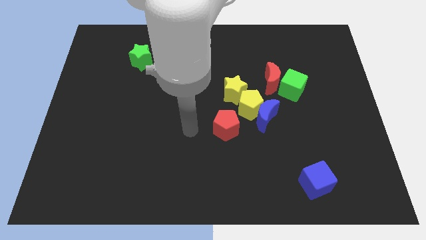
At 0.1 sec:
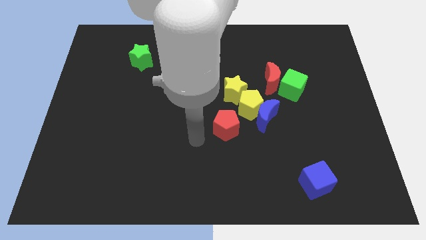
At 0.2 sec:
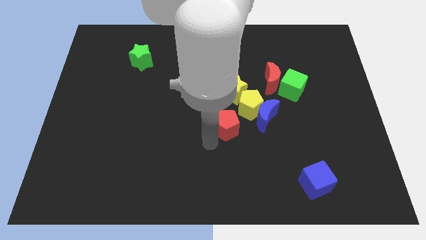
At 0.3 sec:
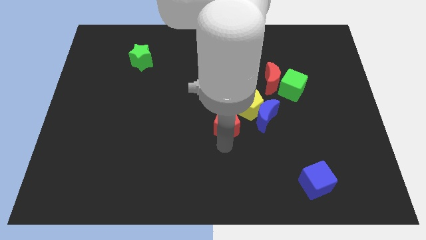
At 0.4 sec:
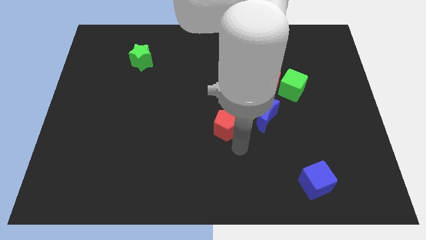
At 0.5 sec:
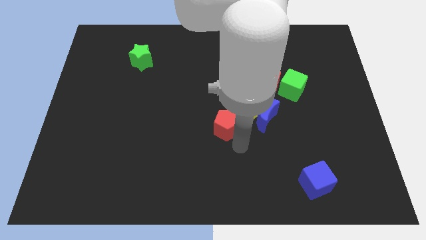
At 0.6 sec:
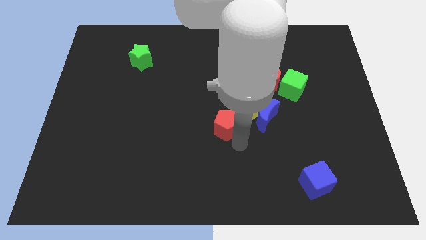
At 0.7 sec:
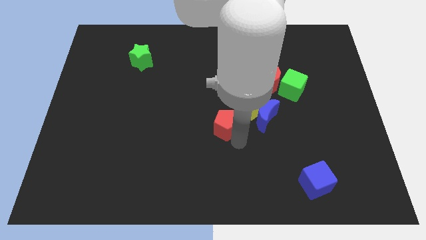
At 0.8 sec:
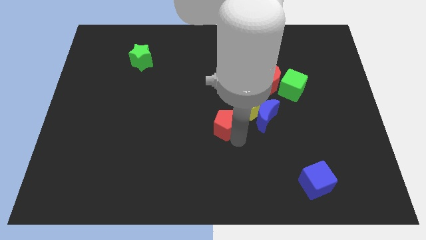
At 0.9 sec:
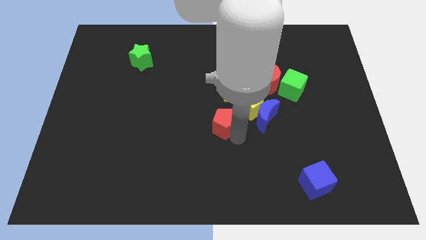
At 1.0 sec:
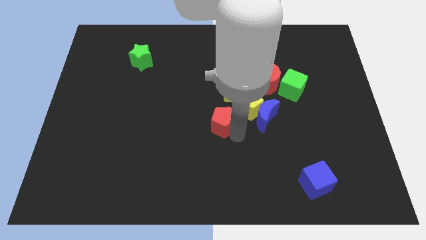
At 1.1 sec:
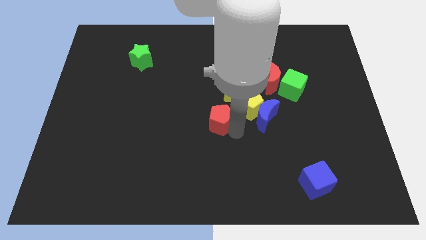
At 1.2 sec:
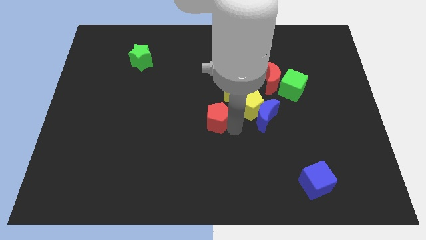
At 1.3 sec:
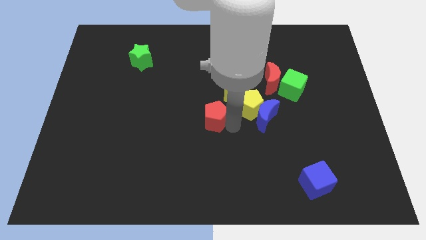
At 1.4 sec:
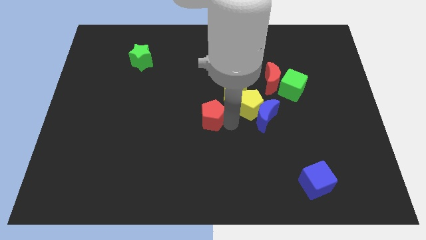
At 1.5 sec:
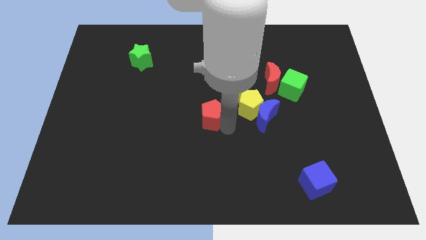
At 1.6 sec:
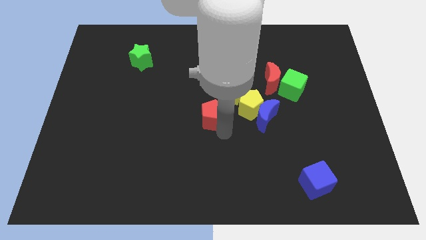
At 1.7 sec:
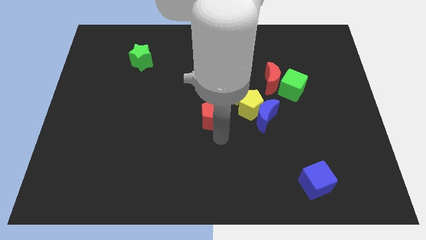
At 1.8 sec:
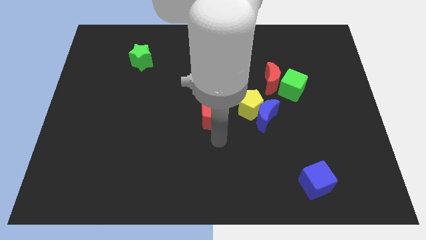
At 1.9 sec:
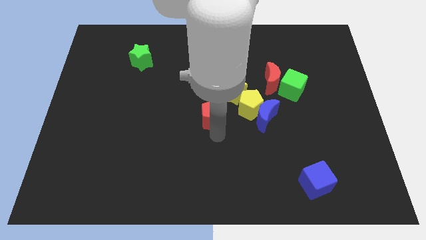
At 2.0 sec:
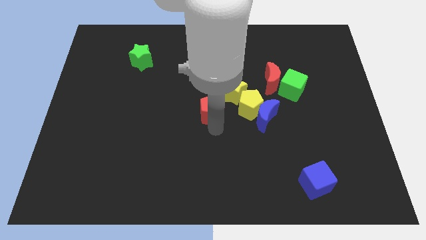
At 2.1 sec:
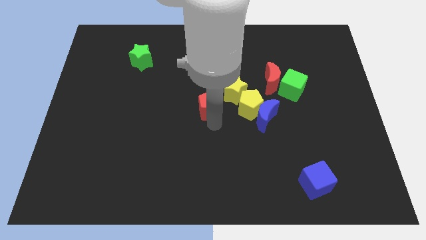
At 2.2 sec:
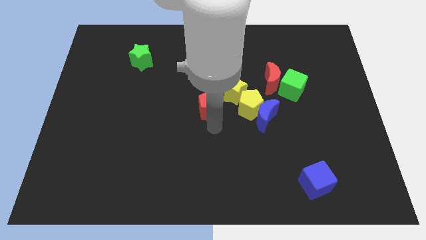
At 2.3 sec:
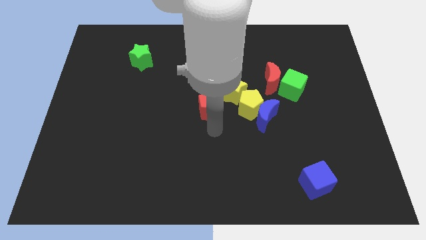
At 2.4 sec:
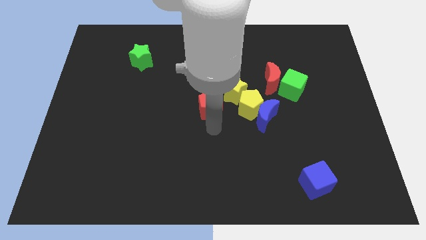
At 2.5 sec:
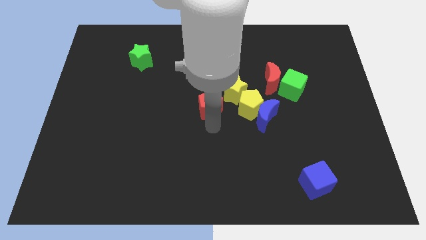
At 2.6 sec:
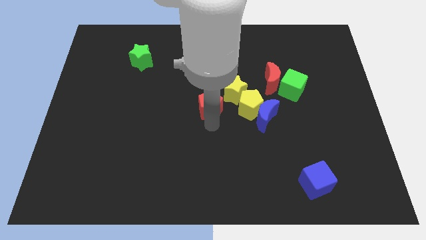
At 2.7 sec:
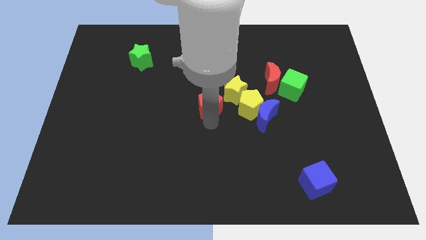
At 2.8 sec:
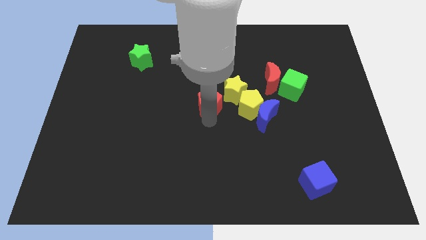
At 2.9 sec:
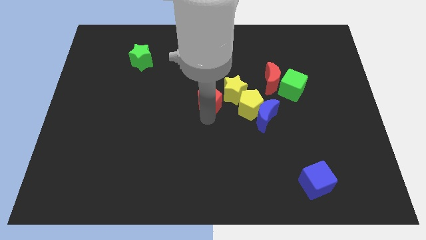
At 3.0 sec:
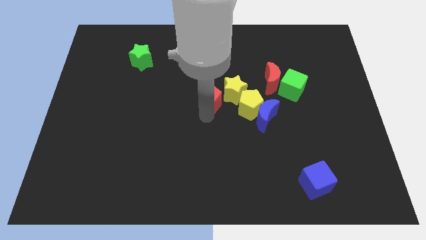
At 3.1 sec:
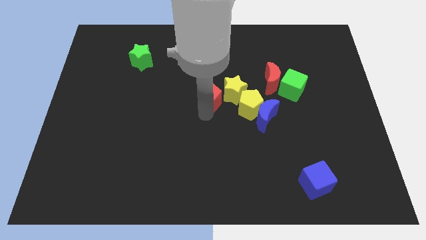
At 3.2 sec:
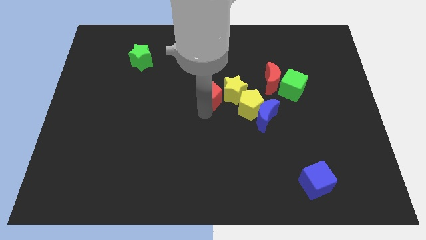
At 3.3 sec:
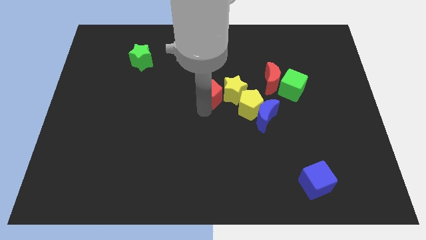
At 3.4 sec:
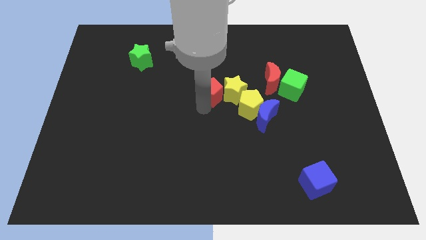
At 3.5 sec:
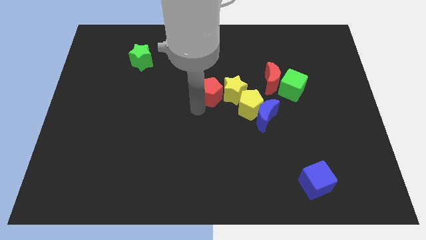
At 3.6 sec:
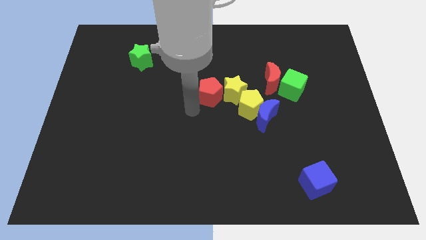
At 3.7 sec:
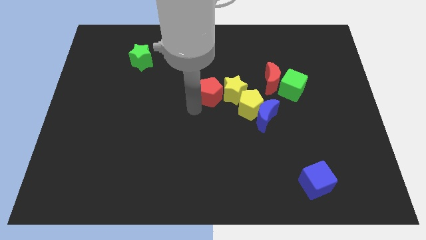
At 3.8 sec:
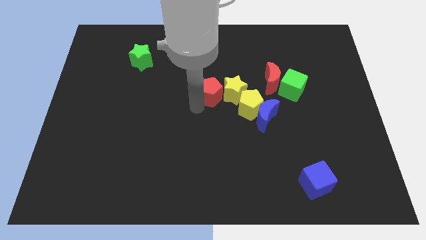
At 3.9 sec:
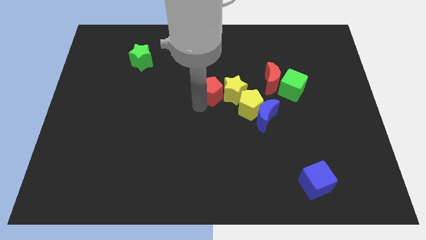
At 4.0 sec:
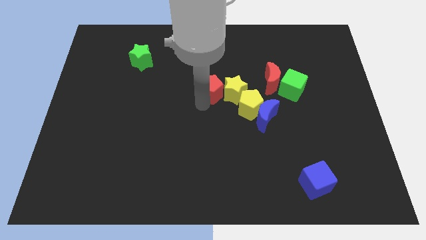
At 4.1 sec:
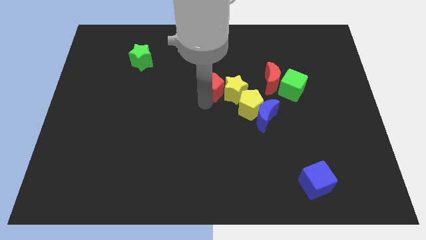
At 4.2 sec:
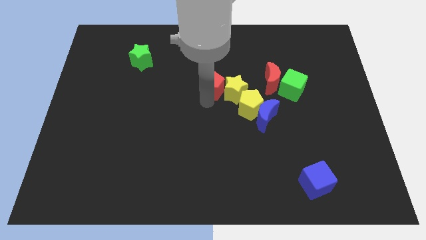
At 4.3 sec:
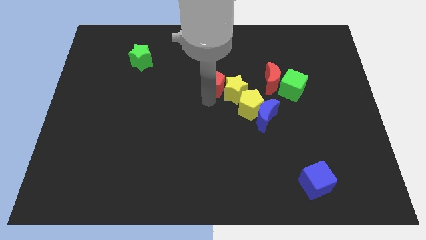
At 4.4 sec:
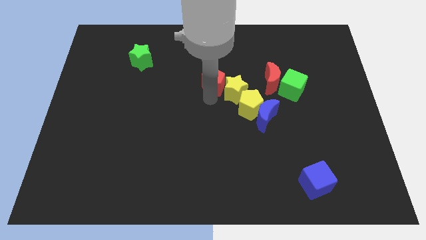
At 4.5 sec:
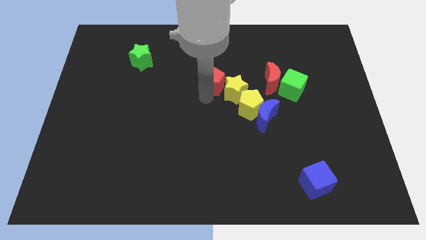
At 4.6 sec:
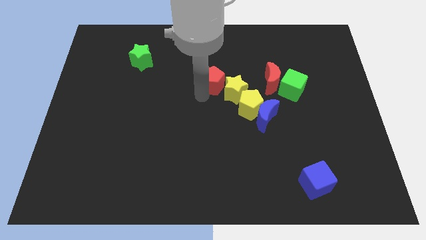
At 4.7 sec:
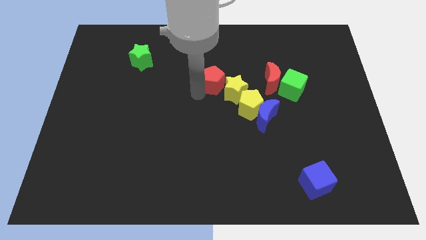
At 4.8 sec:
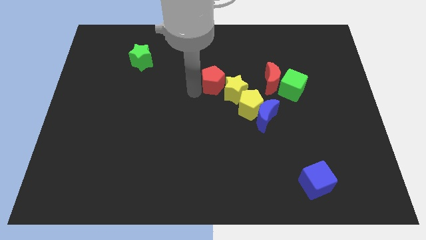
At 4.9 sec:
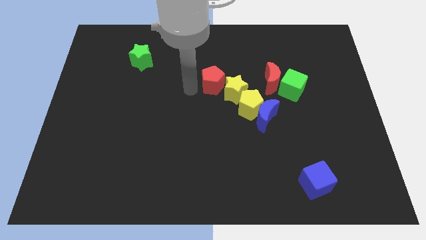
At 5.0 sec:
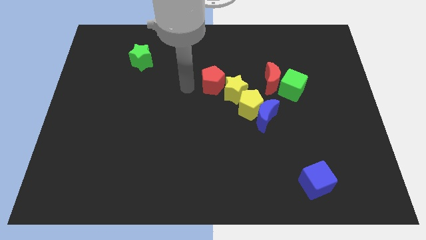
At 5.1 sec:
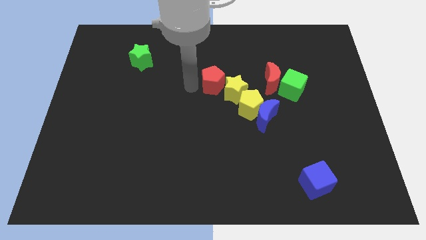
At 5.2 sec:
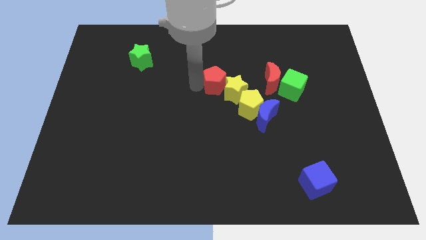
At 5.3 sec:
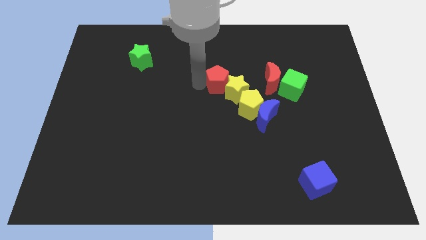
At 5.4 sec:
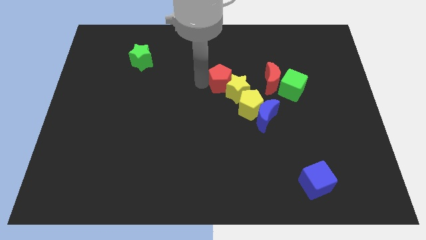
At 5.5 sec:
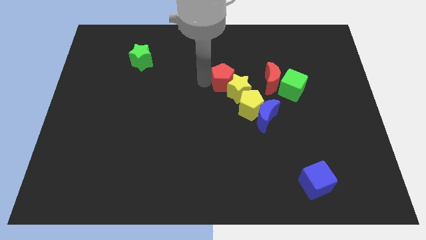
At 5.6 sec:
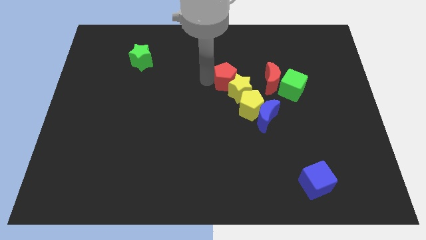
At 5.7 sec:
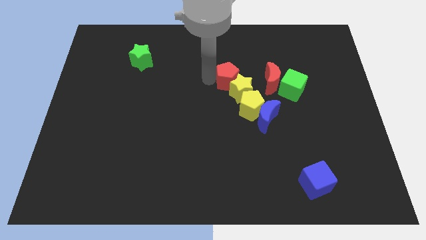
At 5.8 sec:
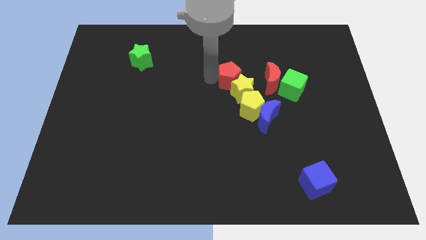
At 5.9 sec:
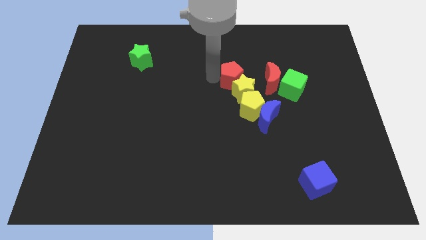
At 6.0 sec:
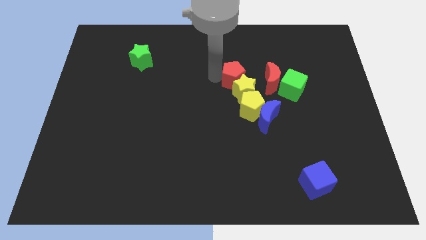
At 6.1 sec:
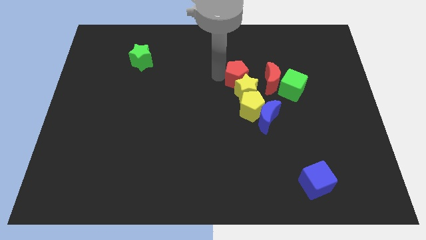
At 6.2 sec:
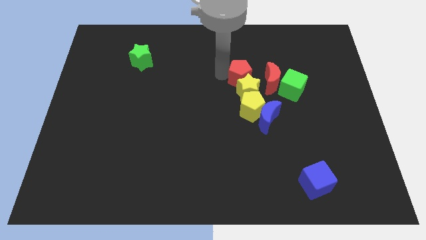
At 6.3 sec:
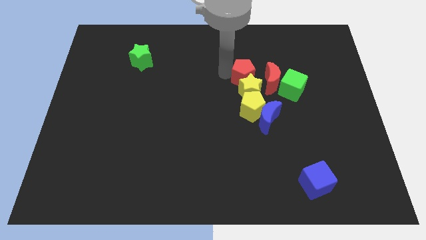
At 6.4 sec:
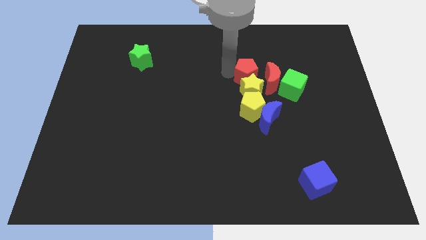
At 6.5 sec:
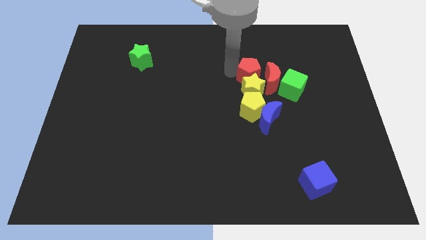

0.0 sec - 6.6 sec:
push the red pentagon close to the red moon

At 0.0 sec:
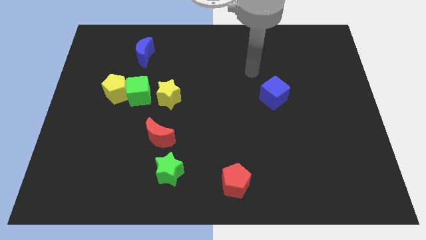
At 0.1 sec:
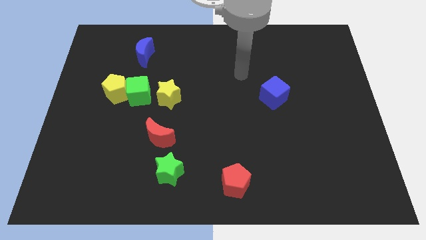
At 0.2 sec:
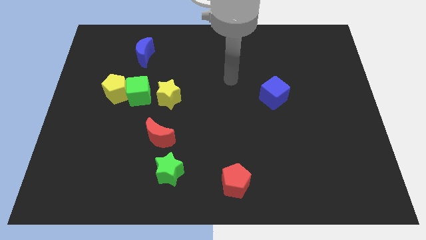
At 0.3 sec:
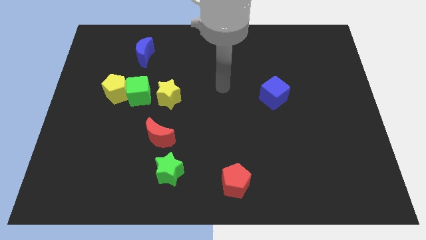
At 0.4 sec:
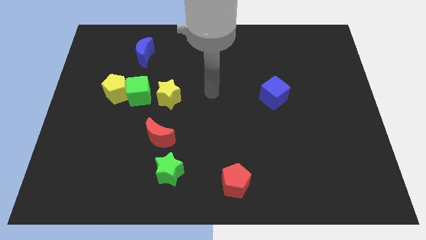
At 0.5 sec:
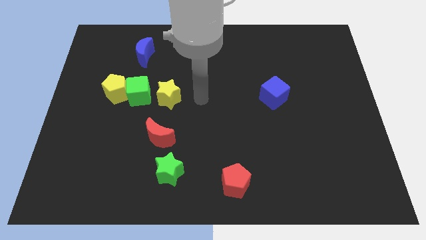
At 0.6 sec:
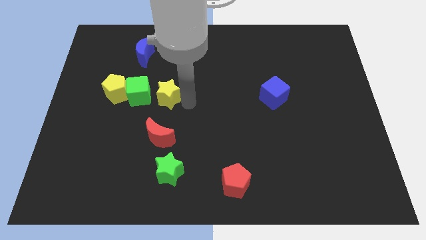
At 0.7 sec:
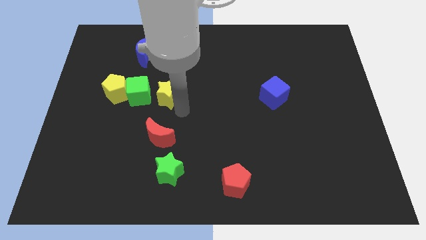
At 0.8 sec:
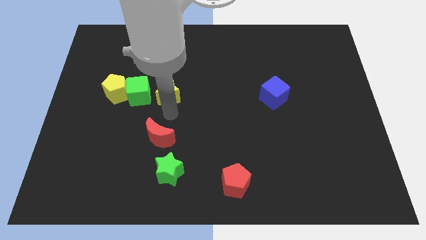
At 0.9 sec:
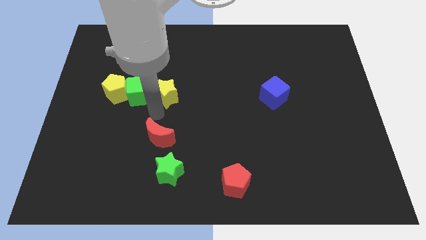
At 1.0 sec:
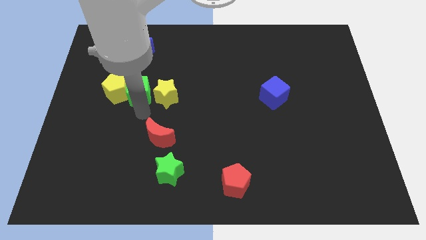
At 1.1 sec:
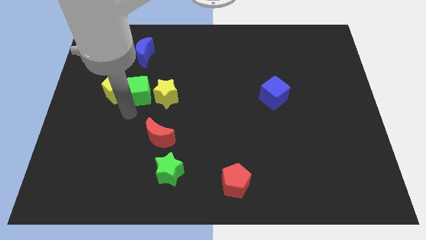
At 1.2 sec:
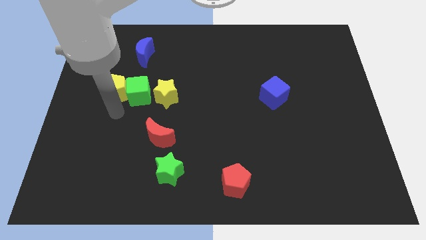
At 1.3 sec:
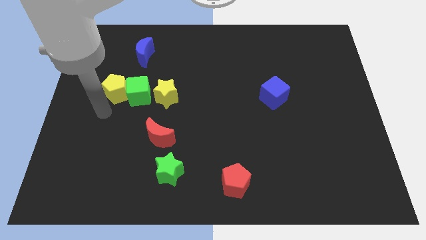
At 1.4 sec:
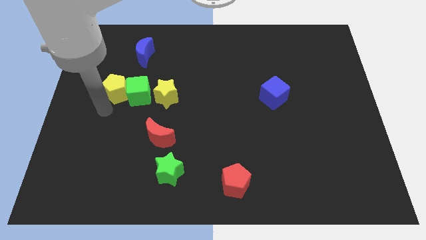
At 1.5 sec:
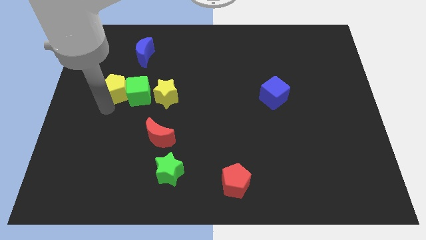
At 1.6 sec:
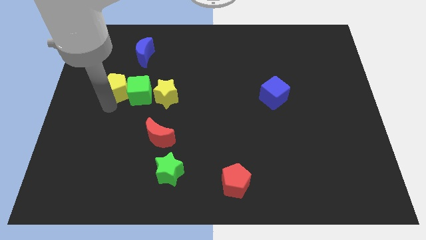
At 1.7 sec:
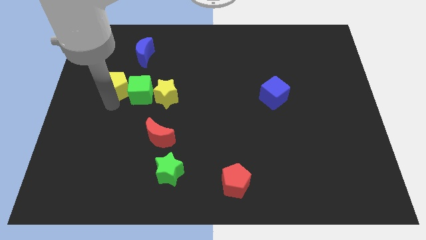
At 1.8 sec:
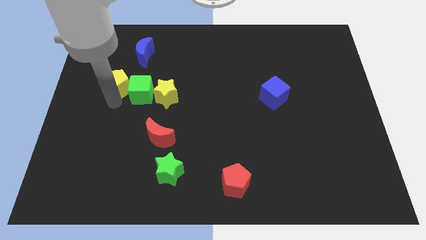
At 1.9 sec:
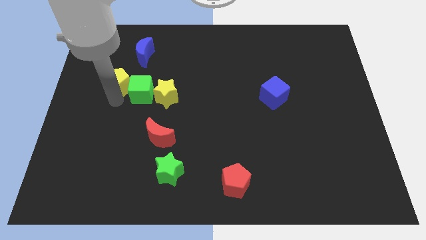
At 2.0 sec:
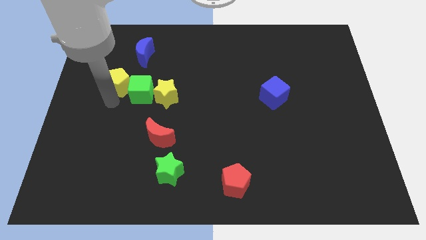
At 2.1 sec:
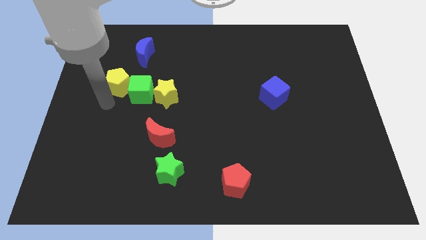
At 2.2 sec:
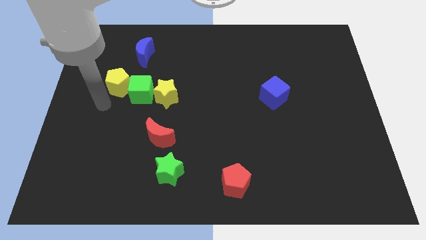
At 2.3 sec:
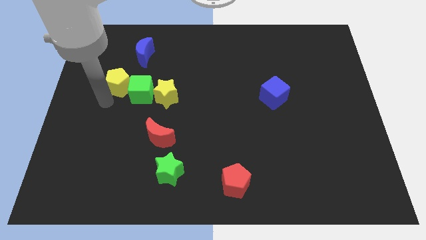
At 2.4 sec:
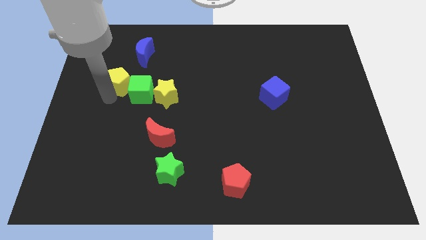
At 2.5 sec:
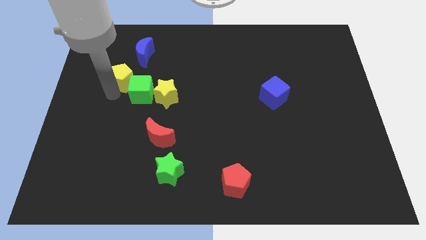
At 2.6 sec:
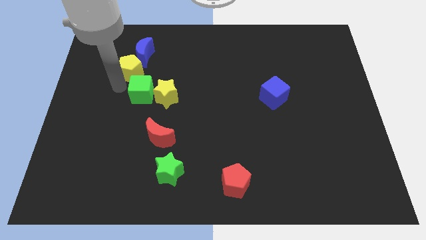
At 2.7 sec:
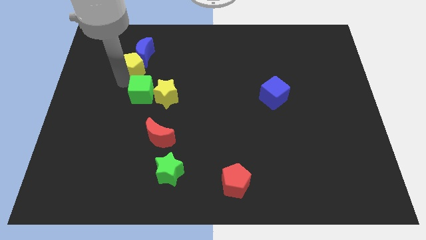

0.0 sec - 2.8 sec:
move the yellow pentagon close to the blue moon
